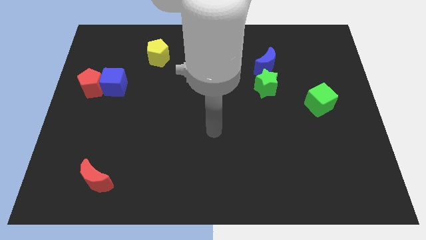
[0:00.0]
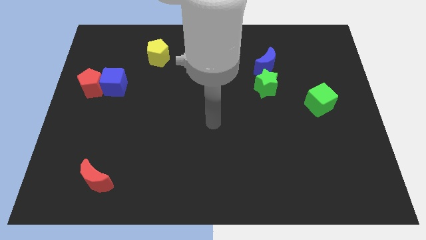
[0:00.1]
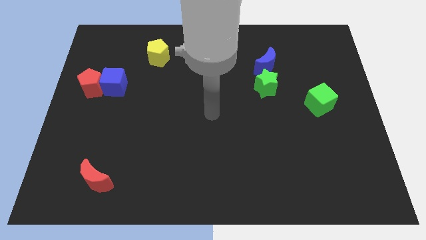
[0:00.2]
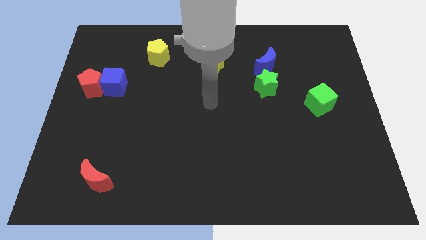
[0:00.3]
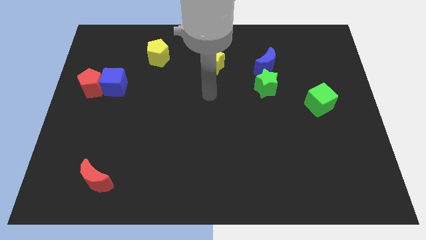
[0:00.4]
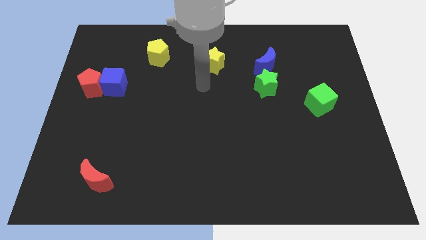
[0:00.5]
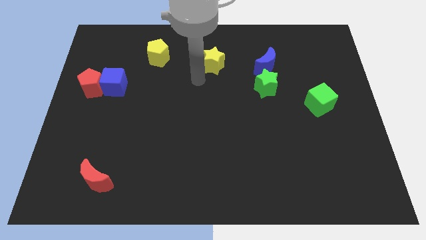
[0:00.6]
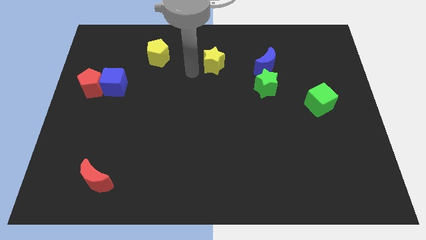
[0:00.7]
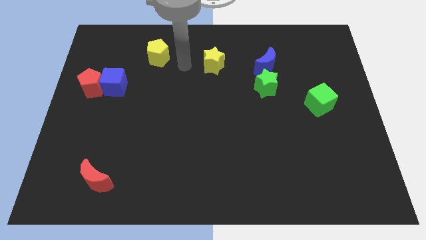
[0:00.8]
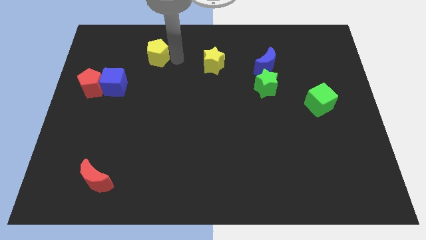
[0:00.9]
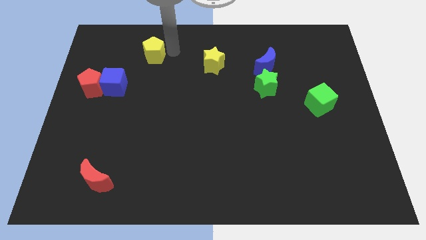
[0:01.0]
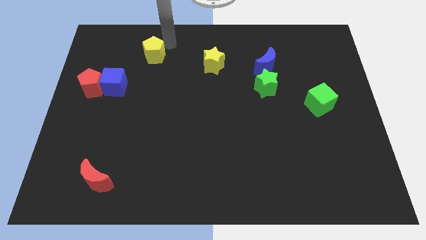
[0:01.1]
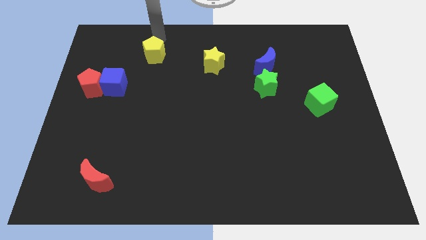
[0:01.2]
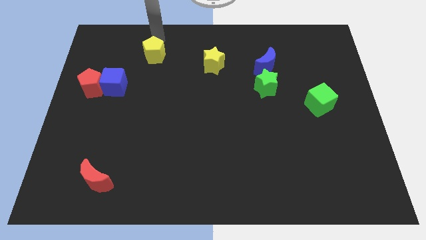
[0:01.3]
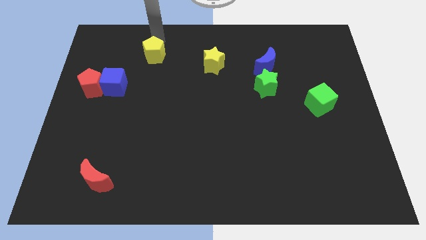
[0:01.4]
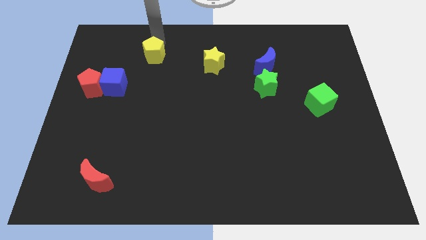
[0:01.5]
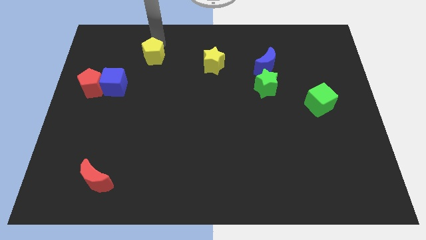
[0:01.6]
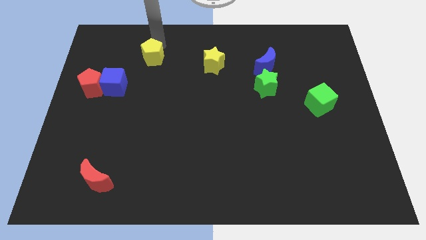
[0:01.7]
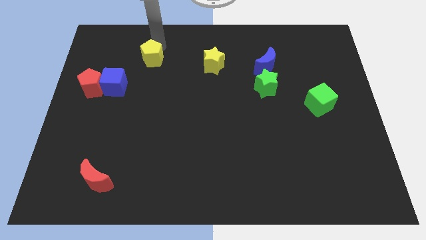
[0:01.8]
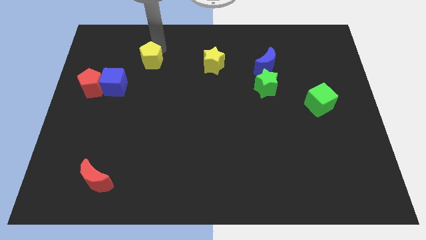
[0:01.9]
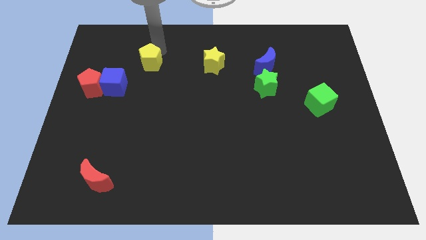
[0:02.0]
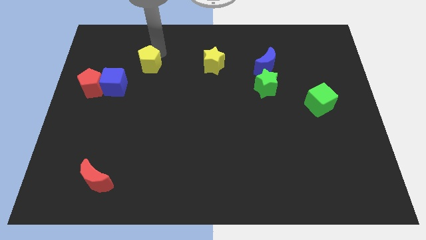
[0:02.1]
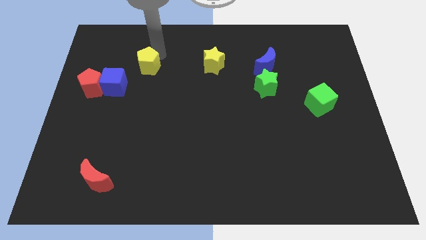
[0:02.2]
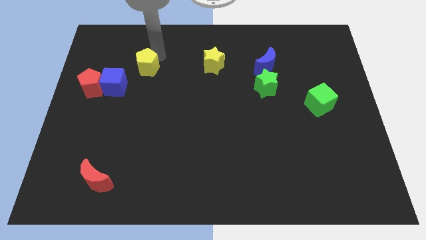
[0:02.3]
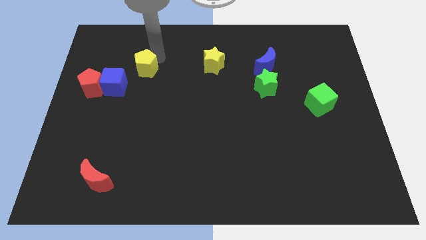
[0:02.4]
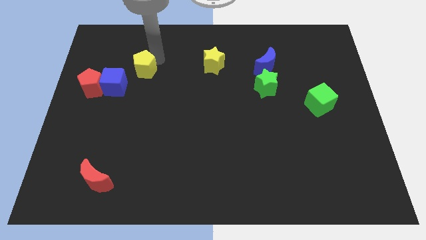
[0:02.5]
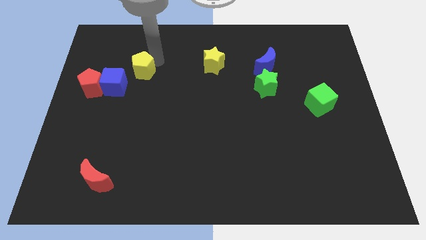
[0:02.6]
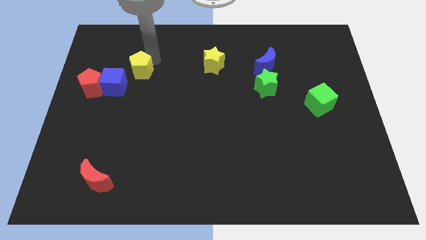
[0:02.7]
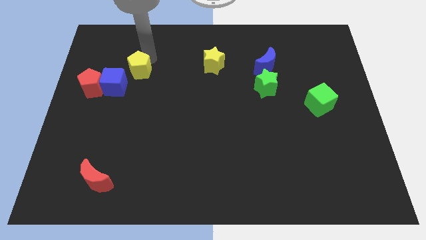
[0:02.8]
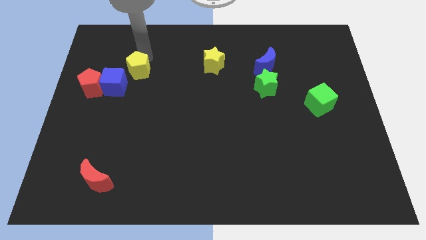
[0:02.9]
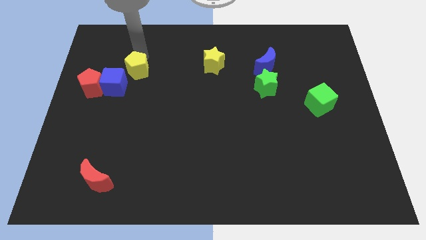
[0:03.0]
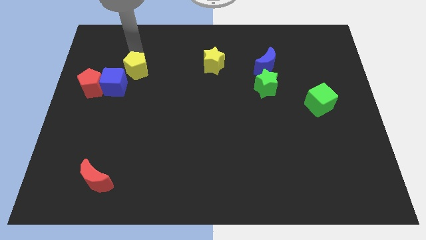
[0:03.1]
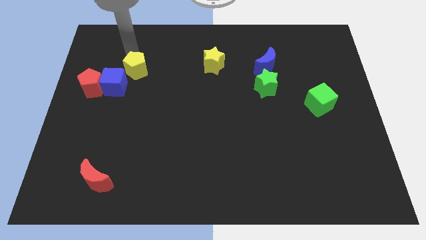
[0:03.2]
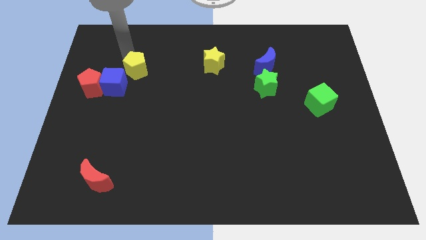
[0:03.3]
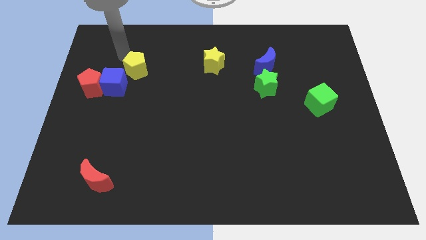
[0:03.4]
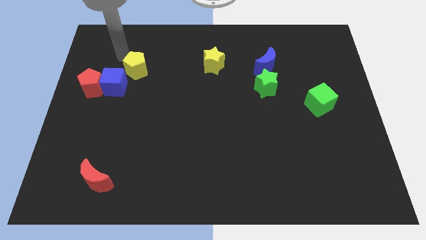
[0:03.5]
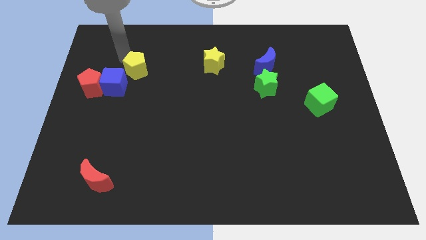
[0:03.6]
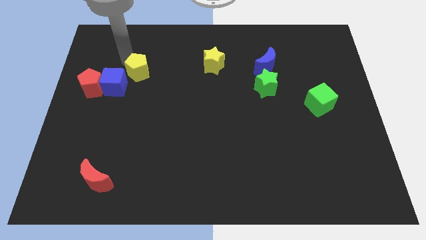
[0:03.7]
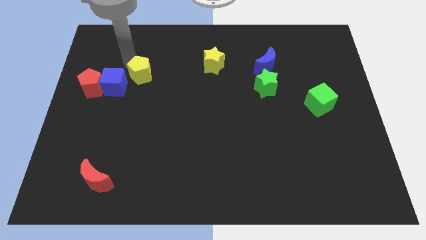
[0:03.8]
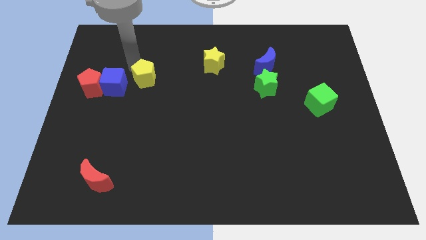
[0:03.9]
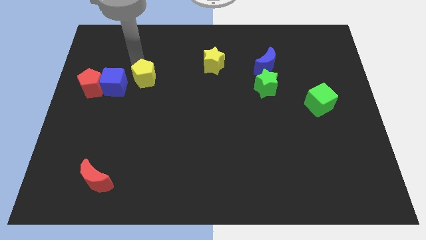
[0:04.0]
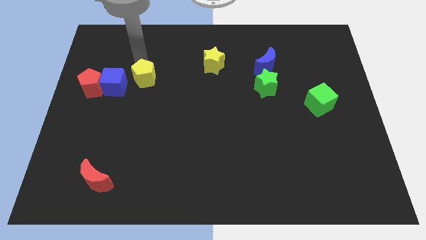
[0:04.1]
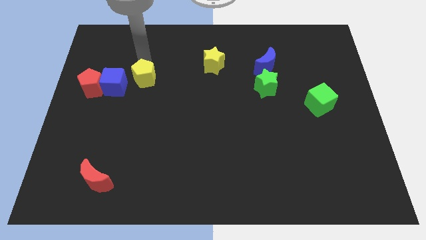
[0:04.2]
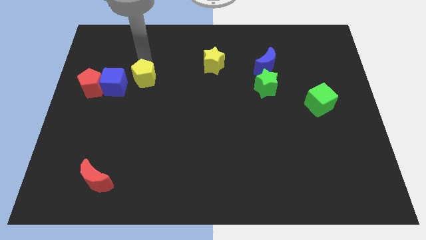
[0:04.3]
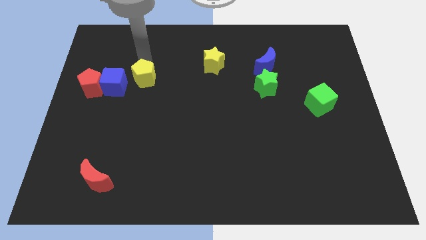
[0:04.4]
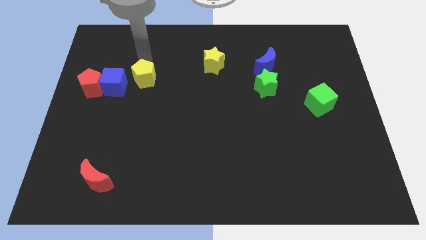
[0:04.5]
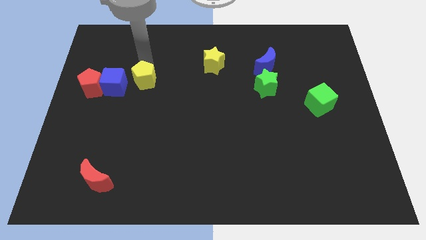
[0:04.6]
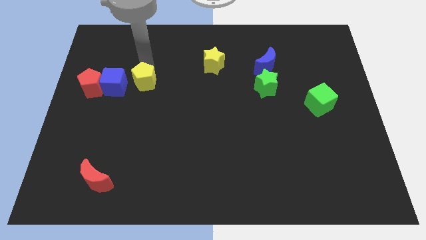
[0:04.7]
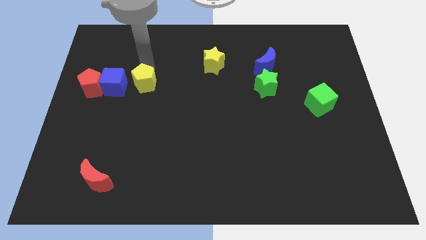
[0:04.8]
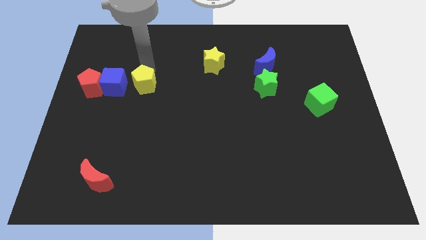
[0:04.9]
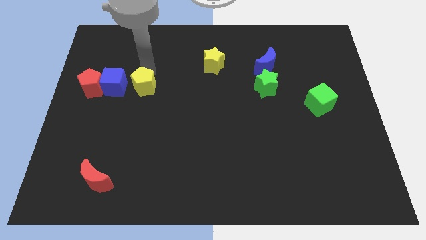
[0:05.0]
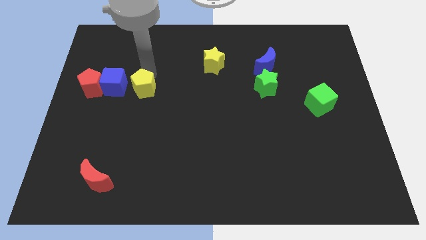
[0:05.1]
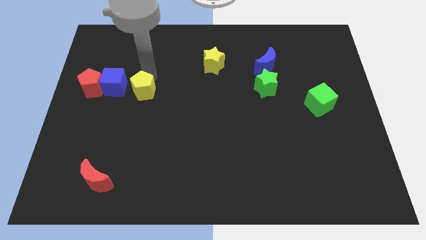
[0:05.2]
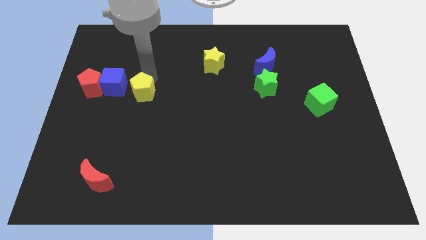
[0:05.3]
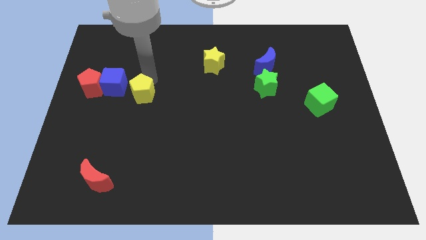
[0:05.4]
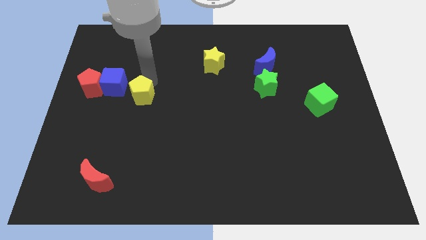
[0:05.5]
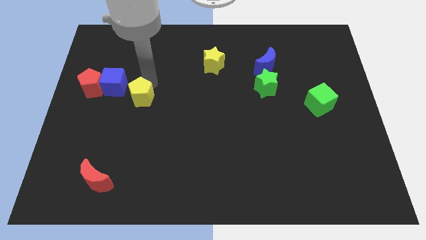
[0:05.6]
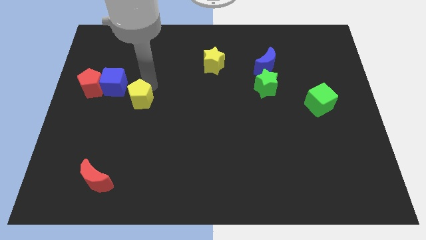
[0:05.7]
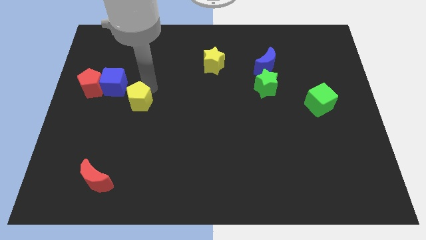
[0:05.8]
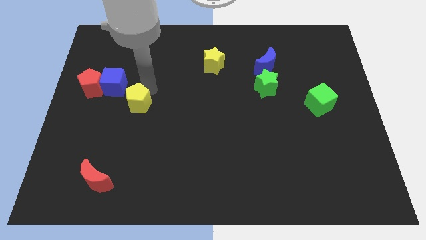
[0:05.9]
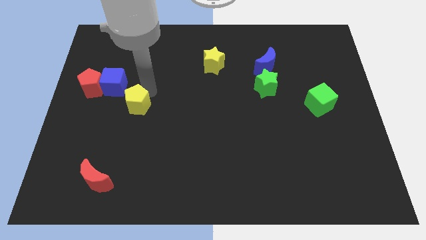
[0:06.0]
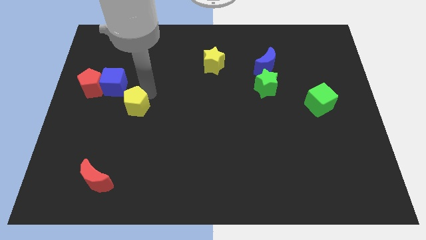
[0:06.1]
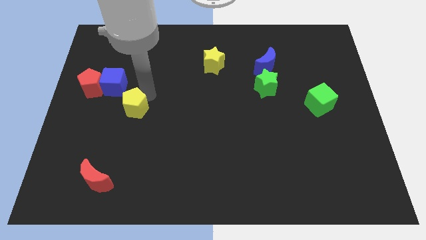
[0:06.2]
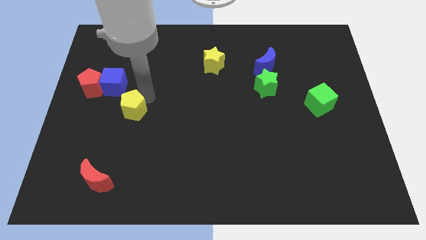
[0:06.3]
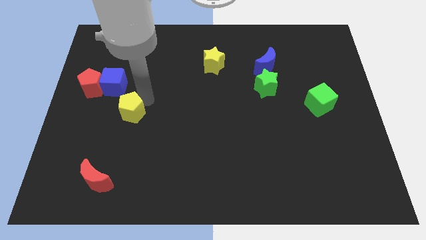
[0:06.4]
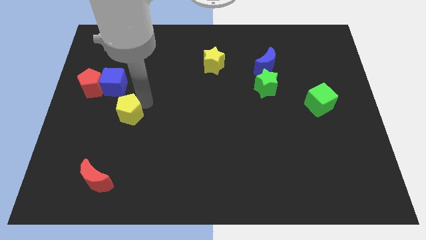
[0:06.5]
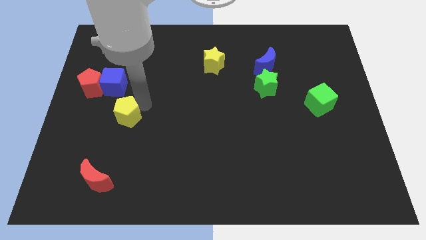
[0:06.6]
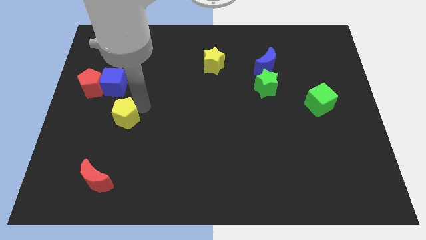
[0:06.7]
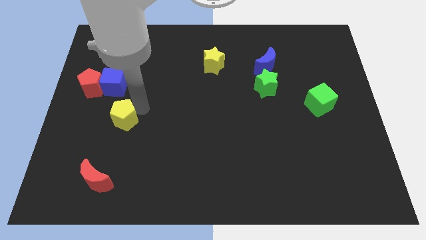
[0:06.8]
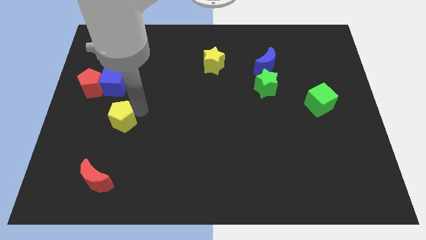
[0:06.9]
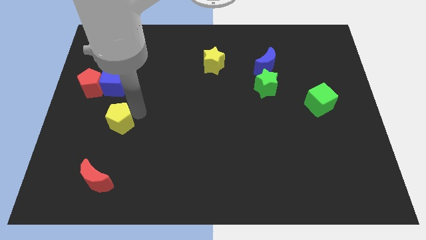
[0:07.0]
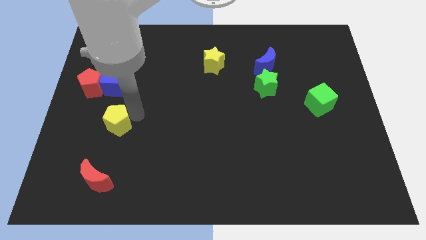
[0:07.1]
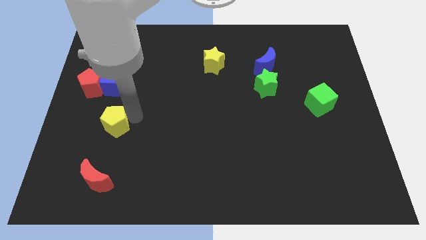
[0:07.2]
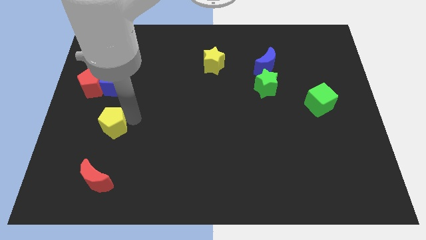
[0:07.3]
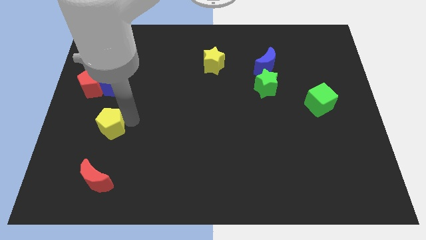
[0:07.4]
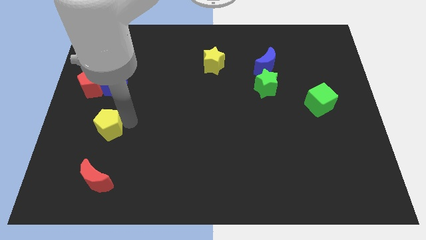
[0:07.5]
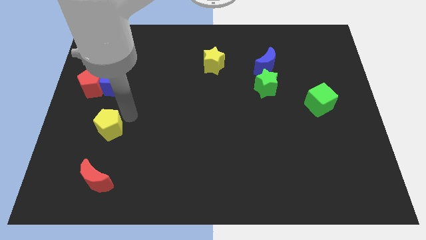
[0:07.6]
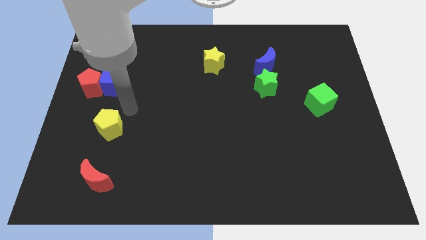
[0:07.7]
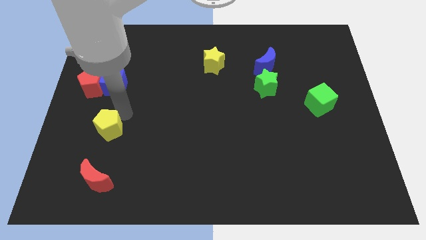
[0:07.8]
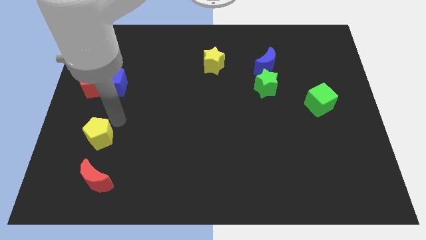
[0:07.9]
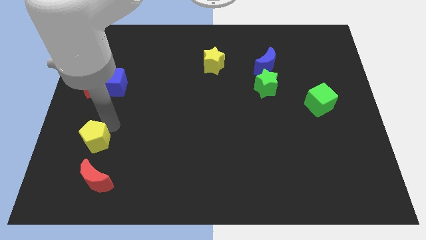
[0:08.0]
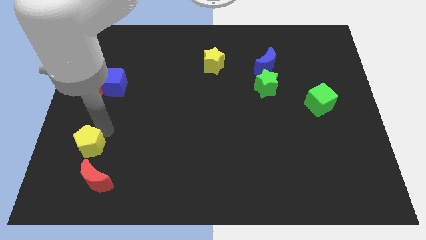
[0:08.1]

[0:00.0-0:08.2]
move the yellow pentagon to the top left of the red moon
